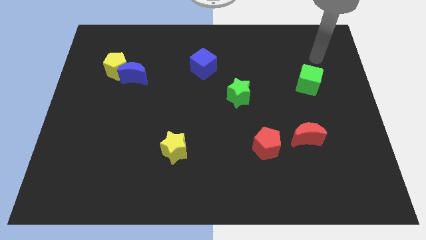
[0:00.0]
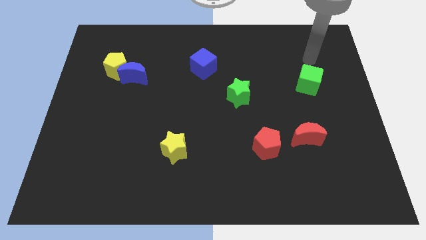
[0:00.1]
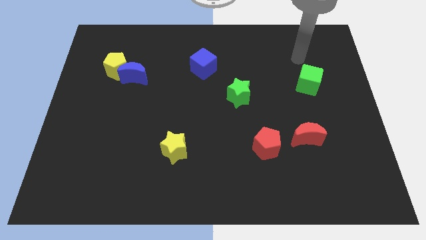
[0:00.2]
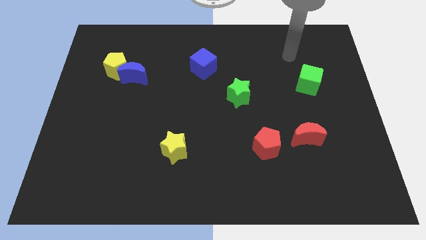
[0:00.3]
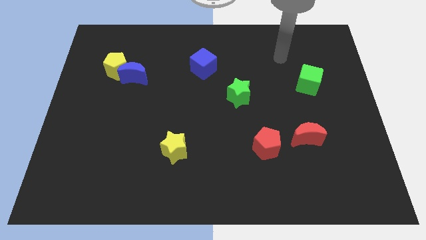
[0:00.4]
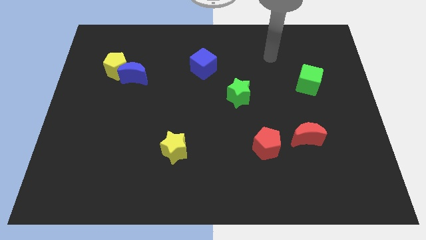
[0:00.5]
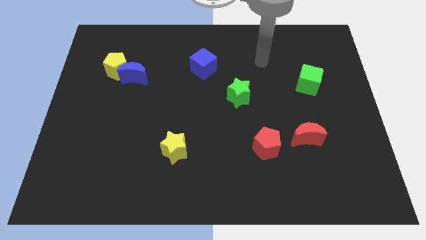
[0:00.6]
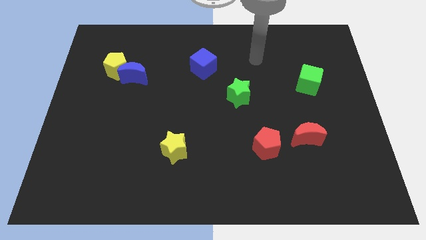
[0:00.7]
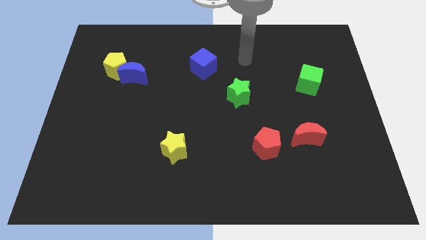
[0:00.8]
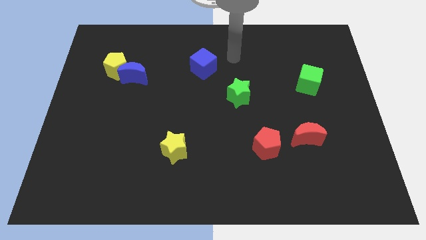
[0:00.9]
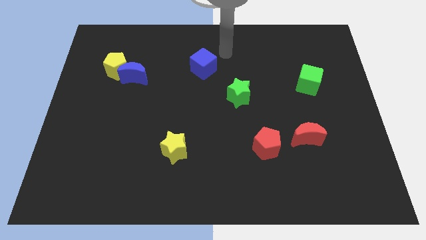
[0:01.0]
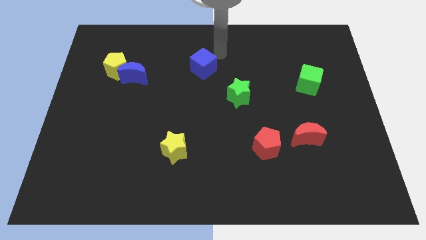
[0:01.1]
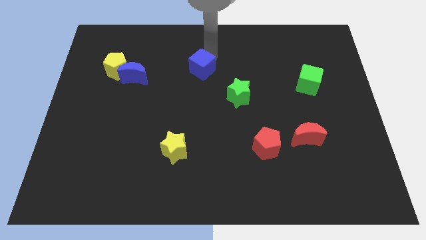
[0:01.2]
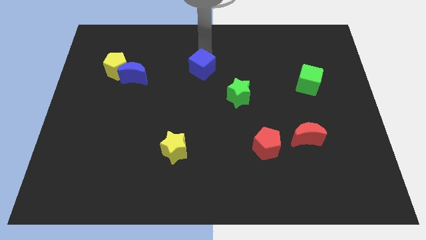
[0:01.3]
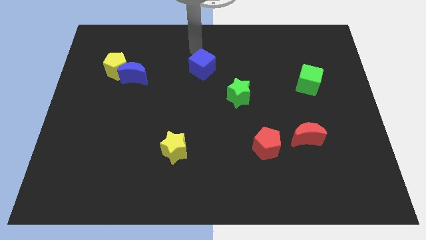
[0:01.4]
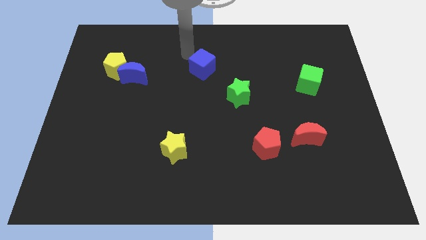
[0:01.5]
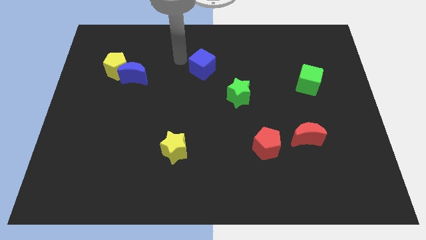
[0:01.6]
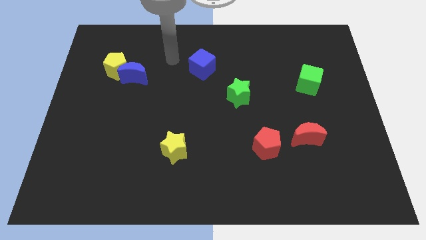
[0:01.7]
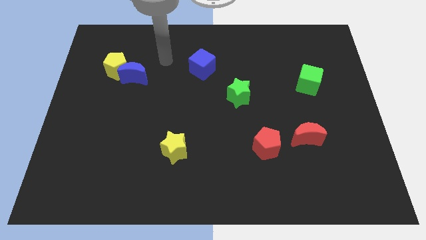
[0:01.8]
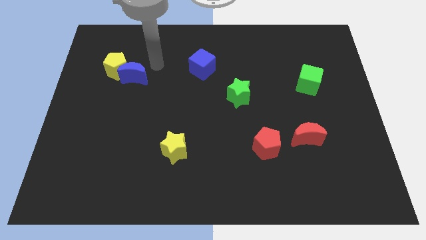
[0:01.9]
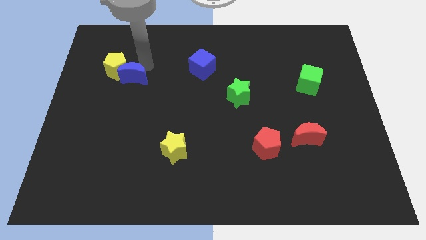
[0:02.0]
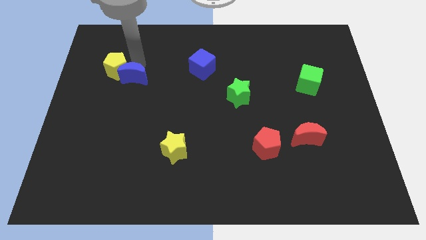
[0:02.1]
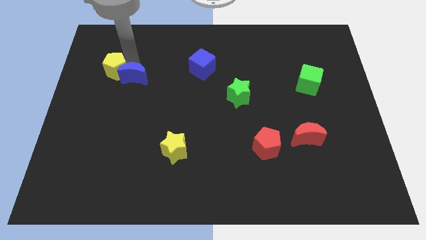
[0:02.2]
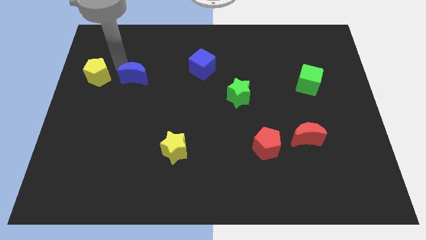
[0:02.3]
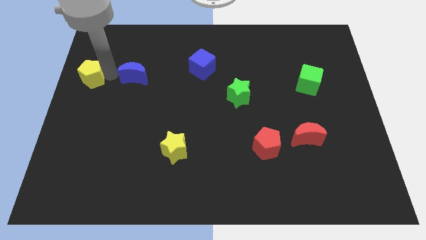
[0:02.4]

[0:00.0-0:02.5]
separate the blue moon from the yellow pentagon

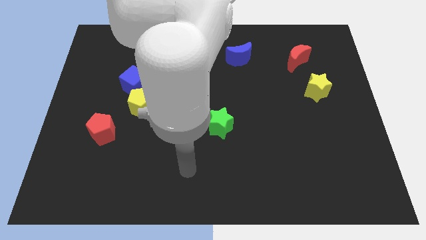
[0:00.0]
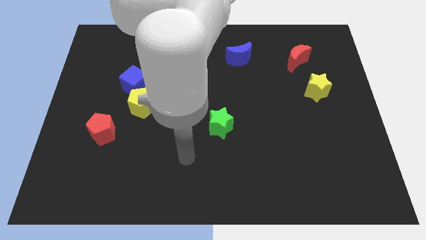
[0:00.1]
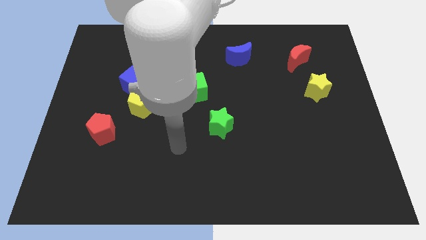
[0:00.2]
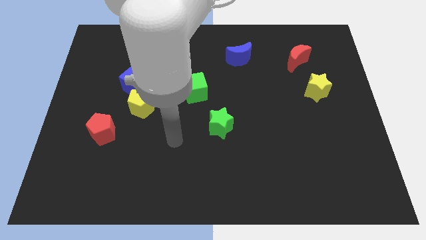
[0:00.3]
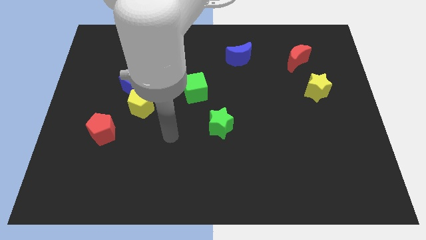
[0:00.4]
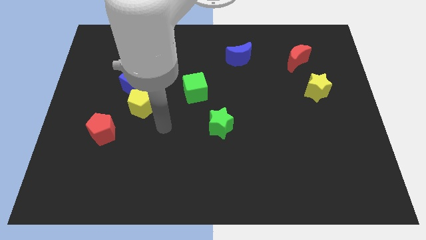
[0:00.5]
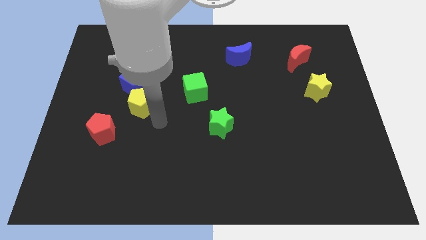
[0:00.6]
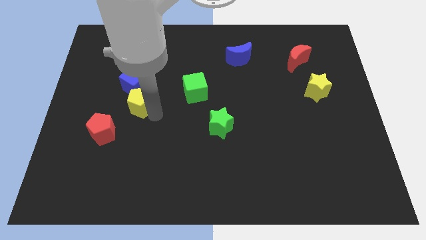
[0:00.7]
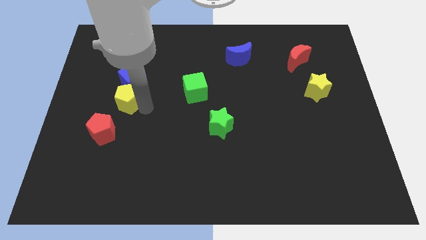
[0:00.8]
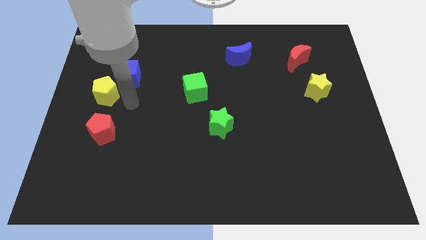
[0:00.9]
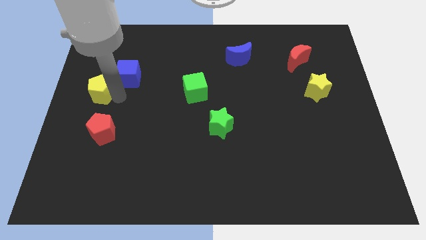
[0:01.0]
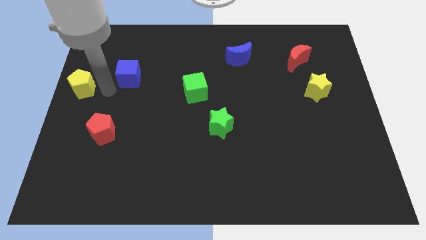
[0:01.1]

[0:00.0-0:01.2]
pull the blue cube apart from the yellow pentagon

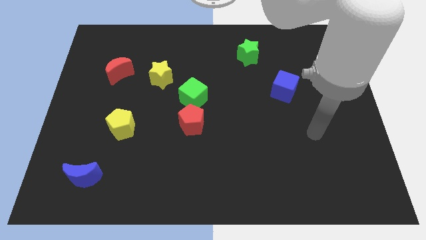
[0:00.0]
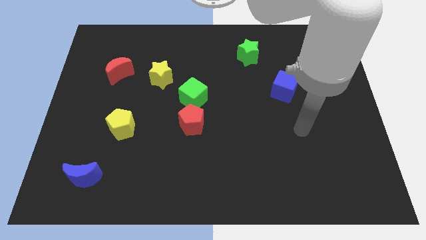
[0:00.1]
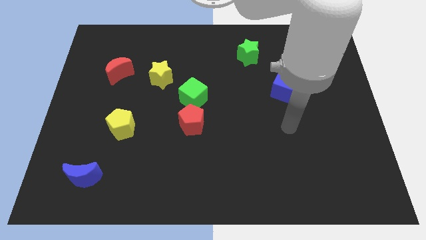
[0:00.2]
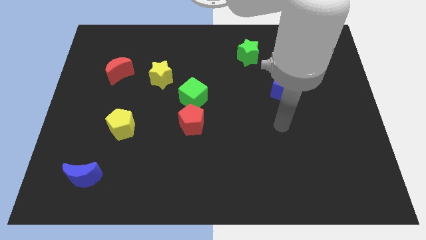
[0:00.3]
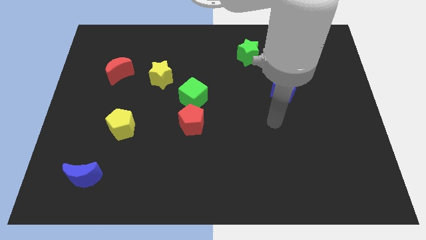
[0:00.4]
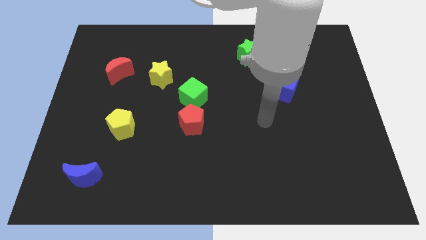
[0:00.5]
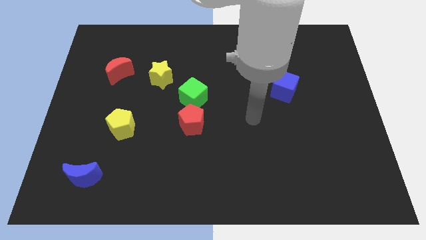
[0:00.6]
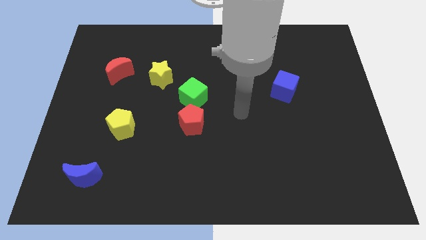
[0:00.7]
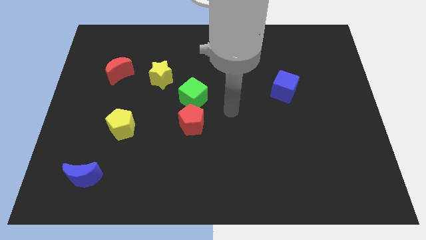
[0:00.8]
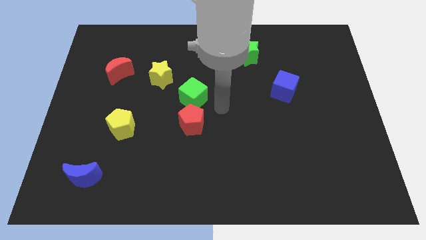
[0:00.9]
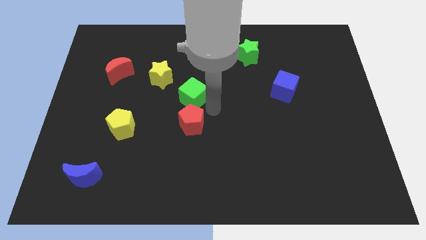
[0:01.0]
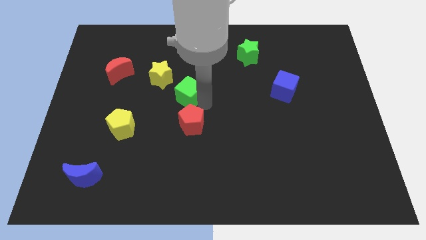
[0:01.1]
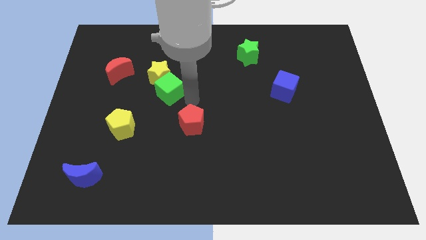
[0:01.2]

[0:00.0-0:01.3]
separate the red pentagon from the green cube

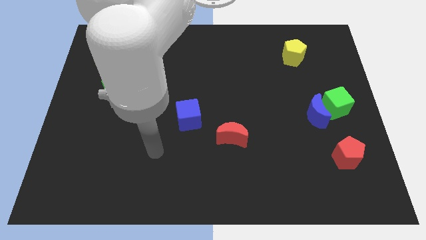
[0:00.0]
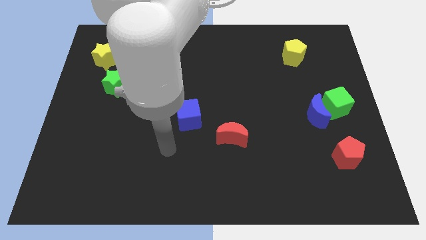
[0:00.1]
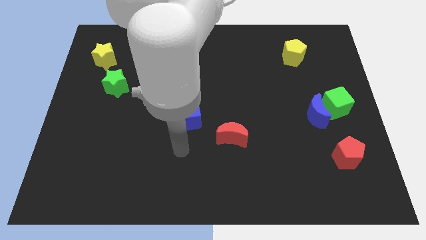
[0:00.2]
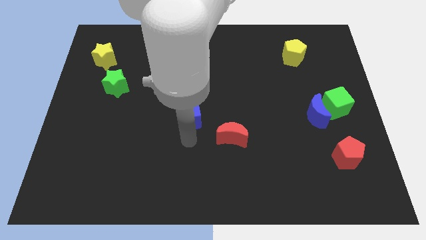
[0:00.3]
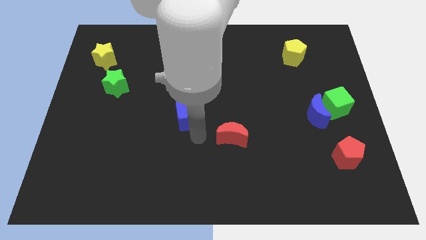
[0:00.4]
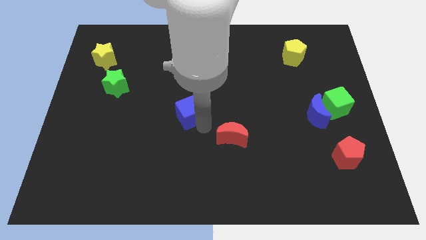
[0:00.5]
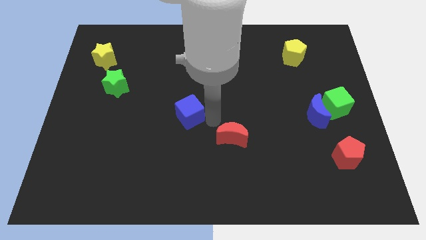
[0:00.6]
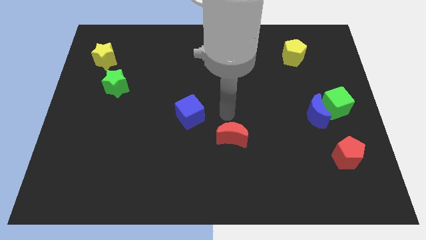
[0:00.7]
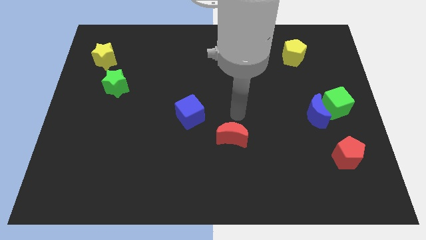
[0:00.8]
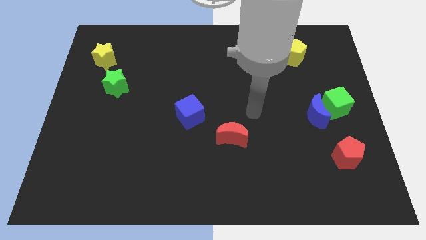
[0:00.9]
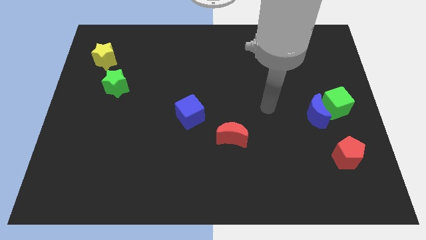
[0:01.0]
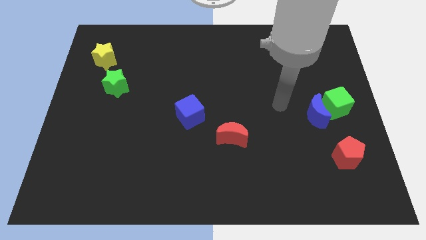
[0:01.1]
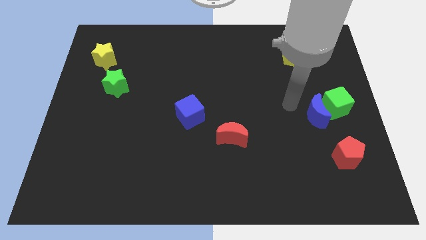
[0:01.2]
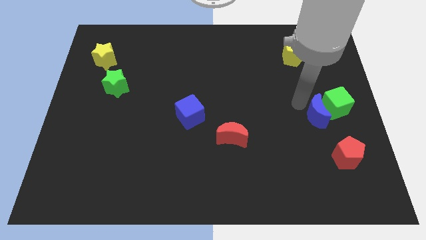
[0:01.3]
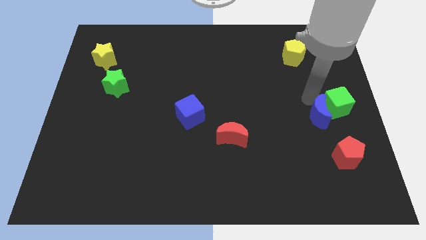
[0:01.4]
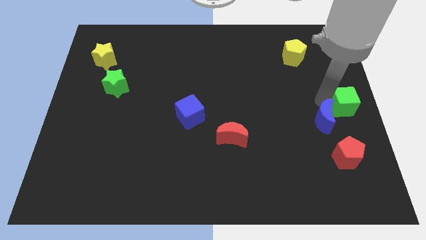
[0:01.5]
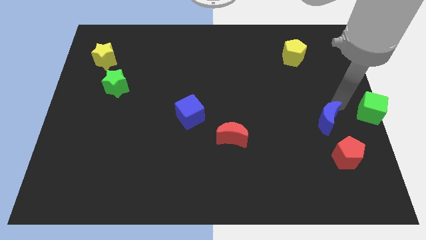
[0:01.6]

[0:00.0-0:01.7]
separate the blue moon from the green cube

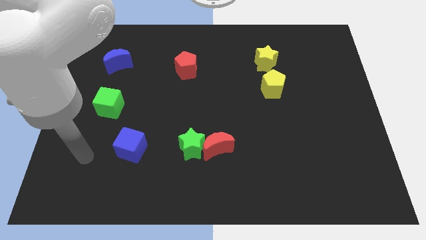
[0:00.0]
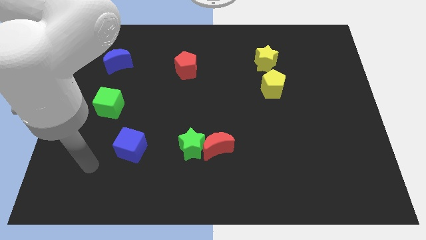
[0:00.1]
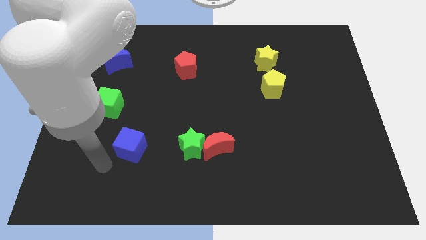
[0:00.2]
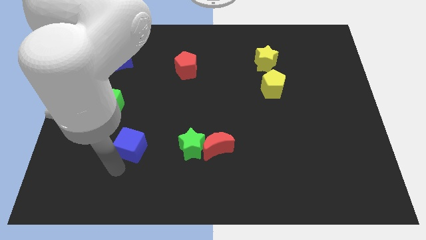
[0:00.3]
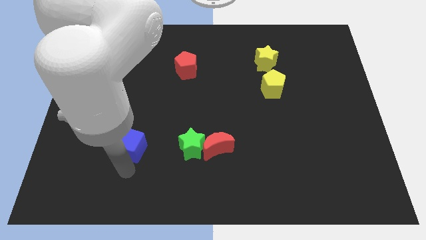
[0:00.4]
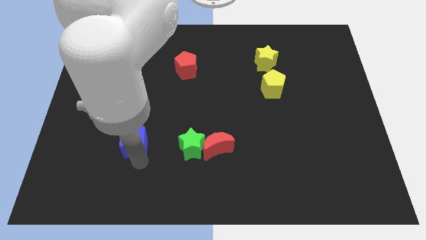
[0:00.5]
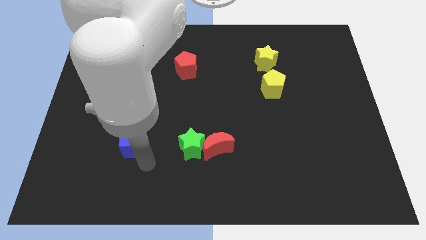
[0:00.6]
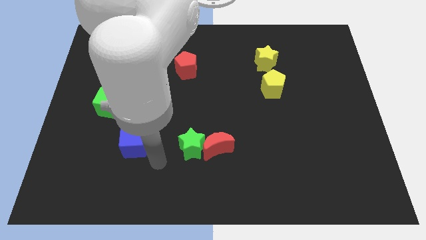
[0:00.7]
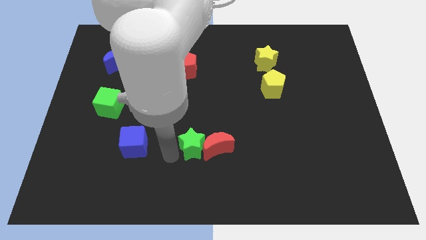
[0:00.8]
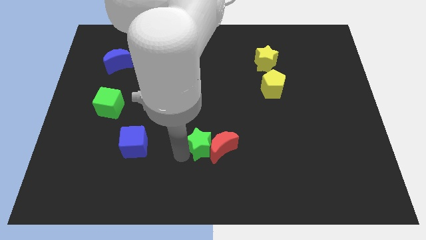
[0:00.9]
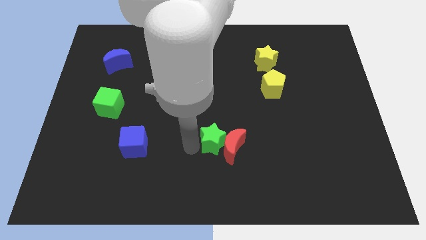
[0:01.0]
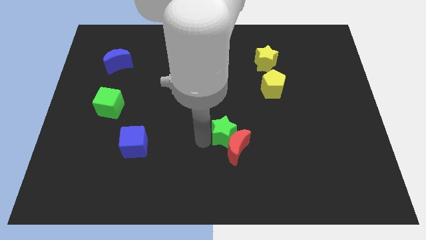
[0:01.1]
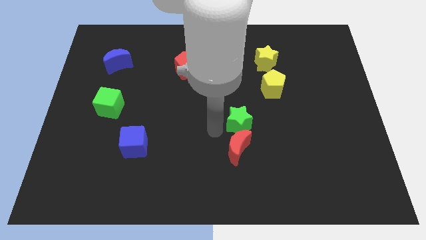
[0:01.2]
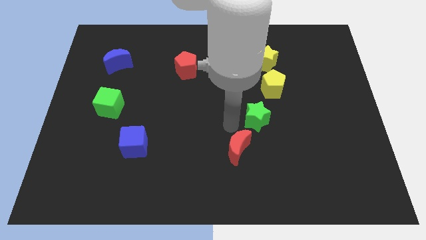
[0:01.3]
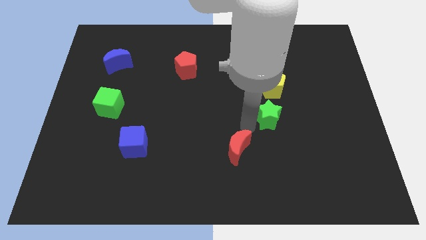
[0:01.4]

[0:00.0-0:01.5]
separate the red moon from the green star

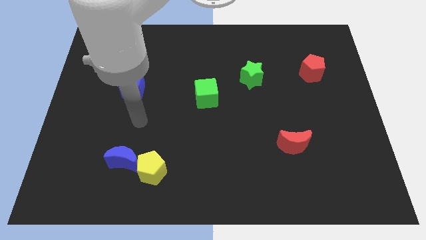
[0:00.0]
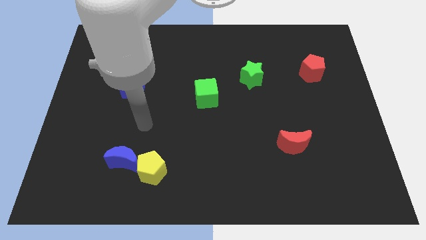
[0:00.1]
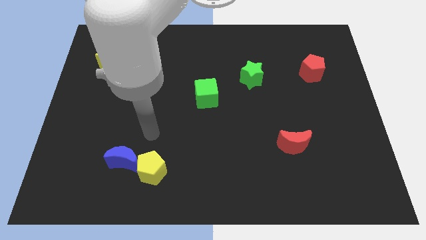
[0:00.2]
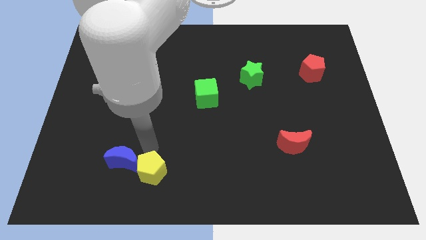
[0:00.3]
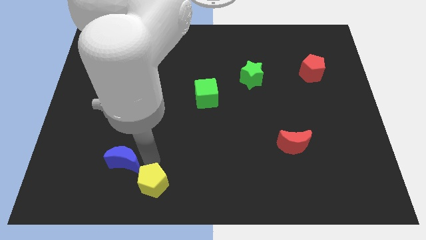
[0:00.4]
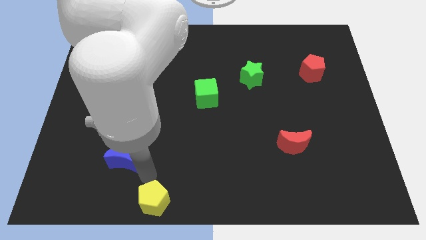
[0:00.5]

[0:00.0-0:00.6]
pull the blue moon apart from the yellow pentagon

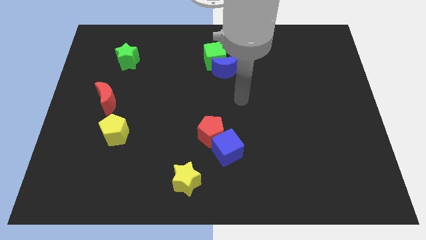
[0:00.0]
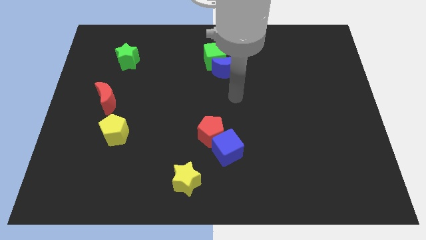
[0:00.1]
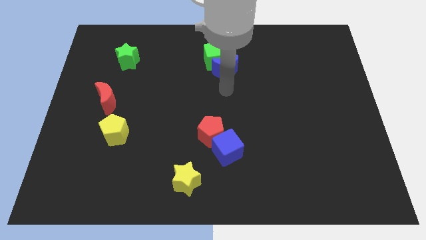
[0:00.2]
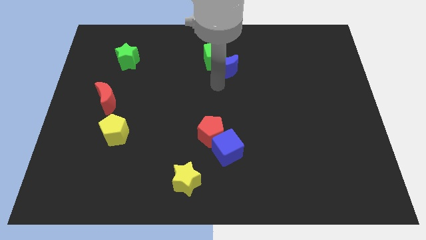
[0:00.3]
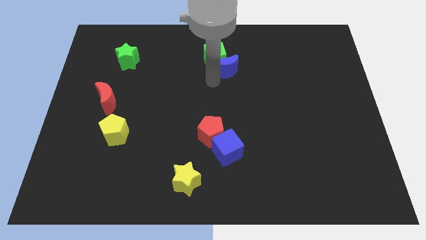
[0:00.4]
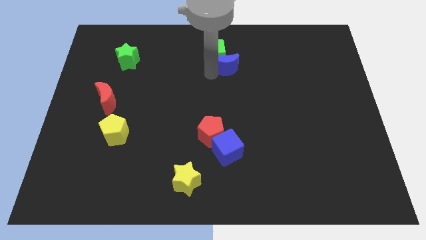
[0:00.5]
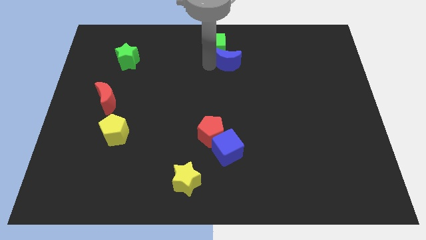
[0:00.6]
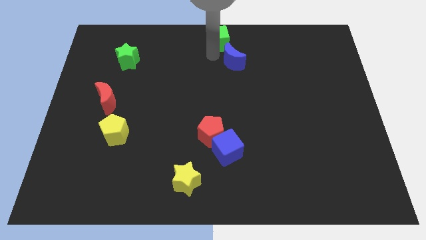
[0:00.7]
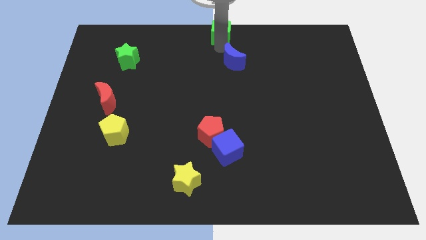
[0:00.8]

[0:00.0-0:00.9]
pull the blue moon apart from the green cube
